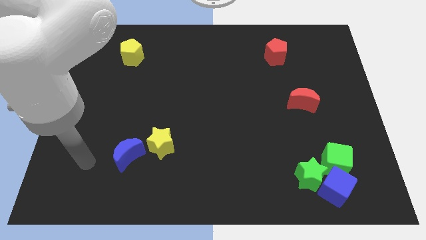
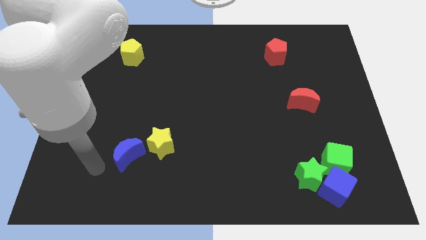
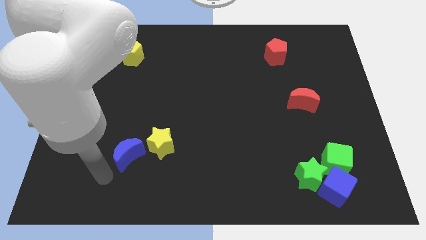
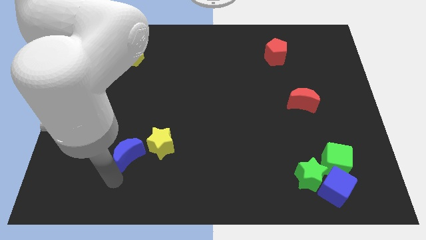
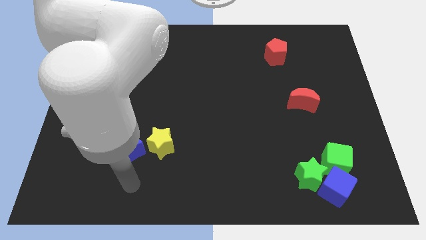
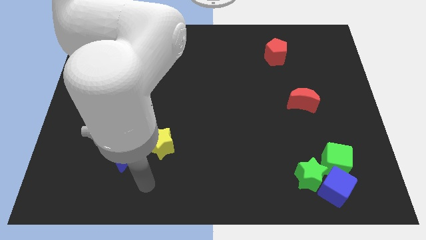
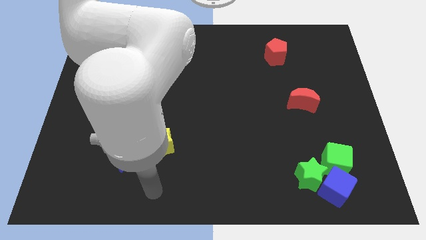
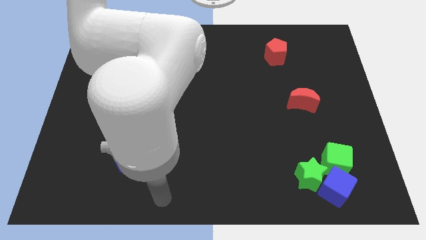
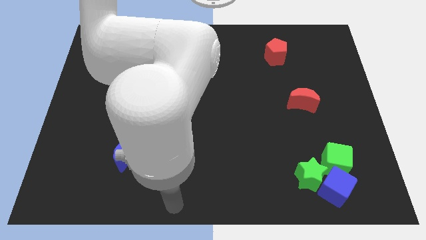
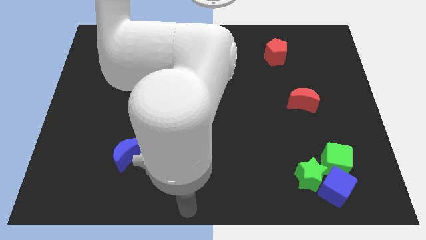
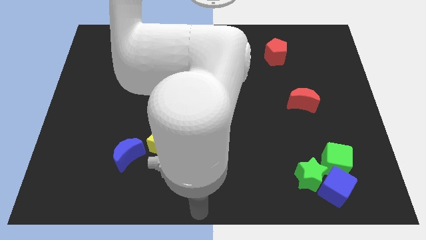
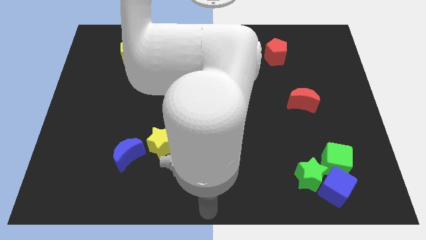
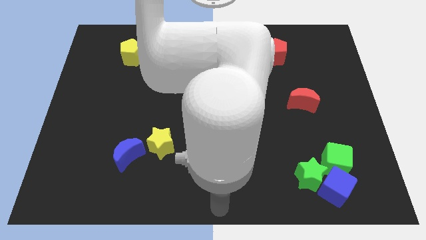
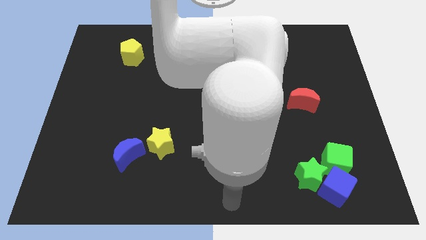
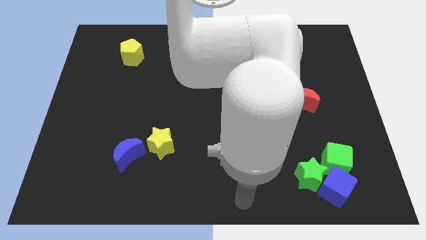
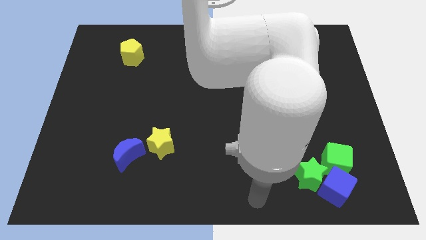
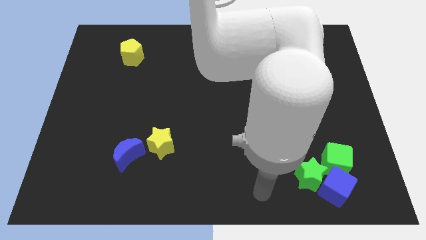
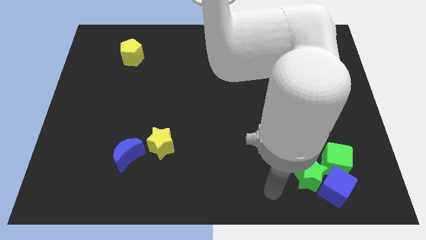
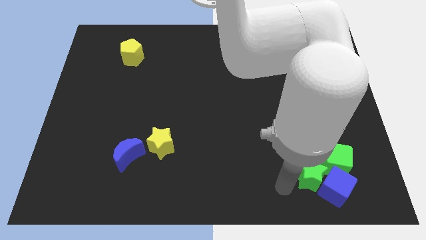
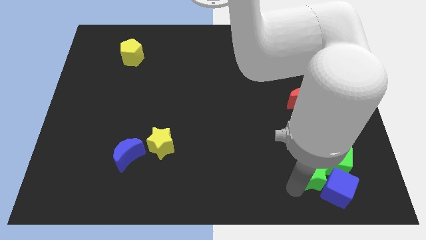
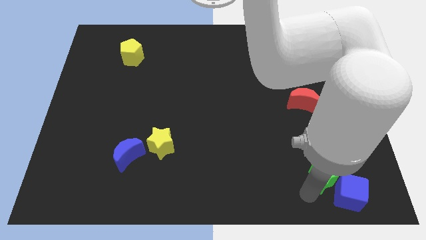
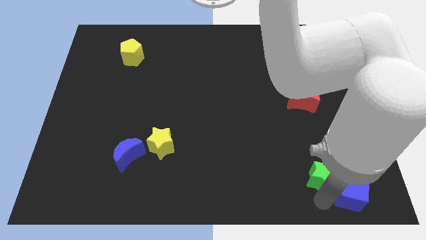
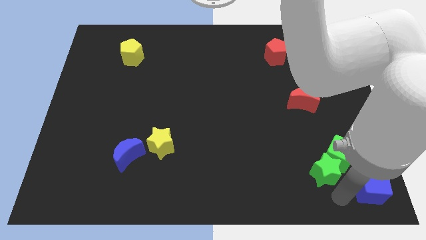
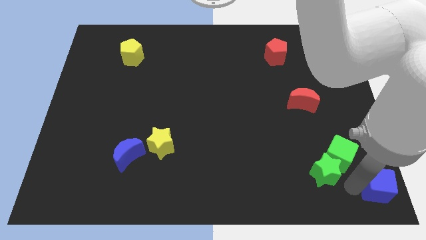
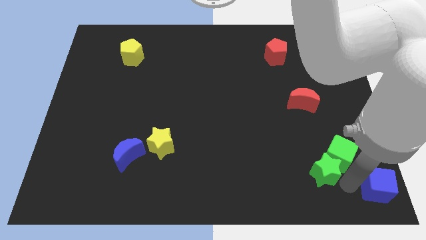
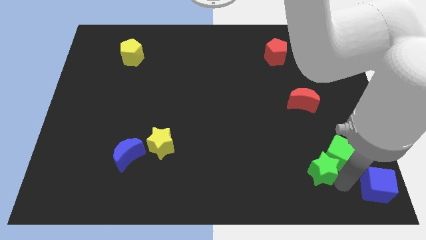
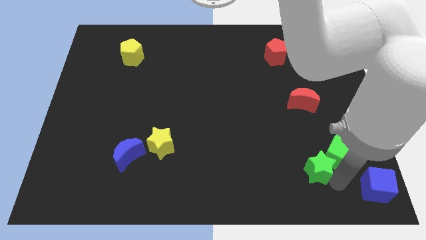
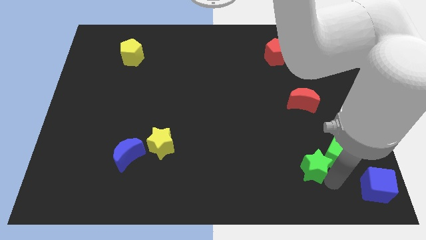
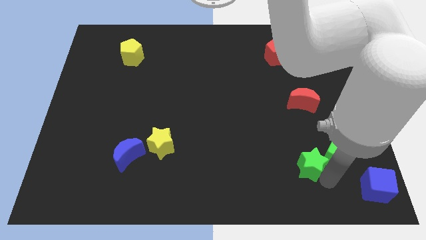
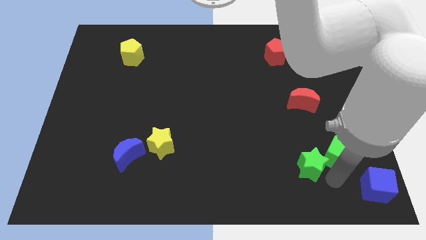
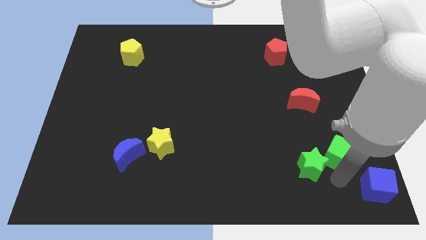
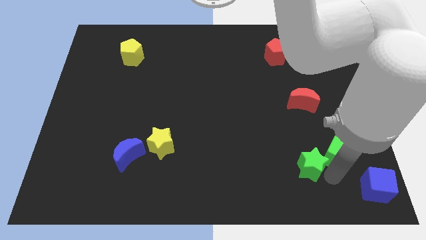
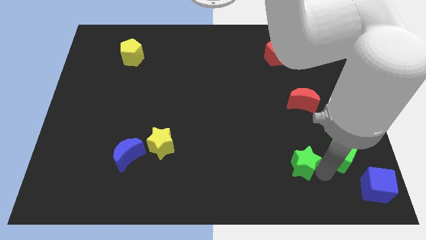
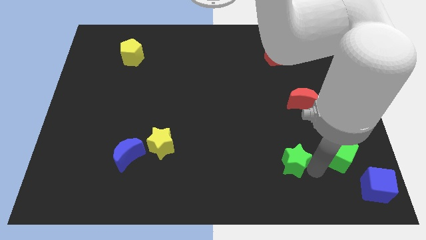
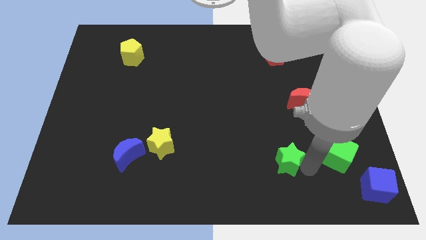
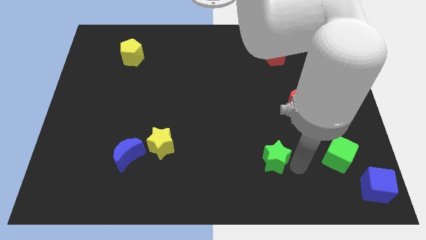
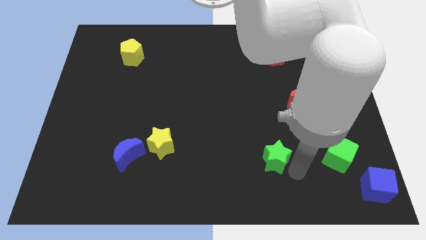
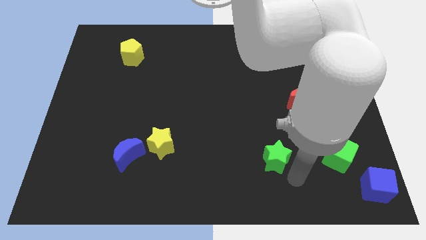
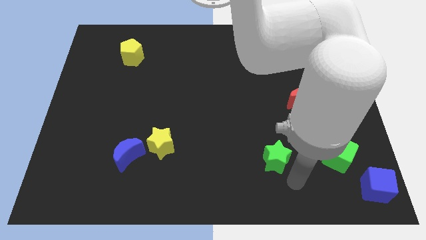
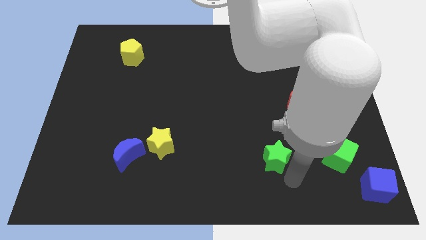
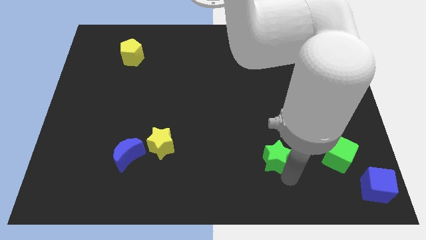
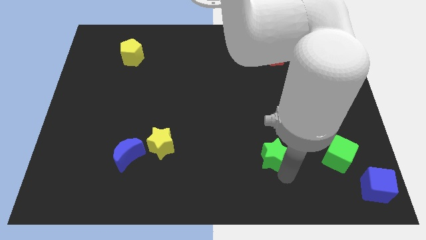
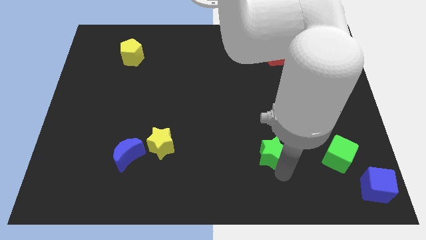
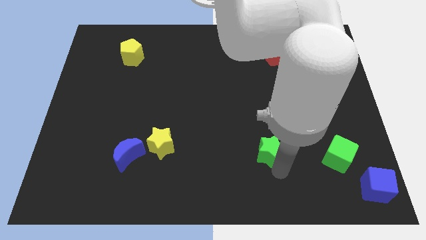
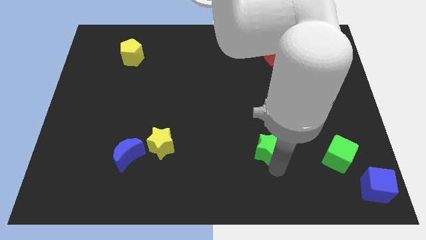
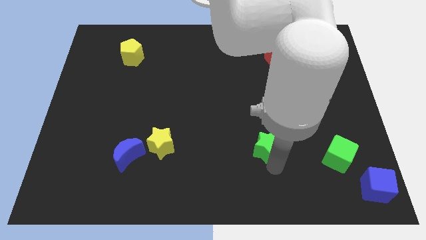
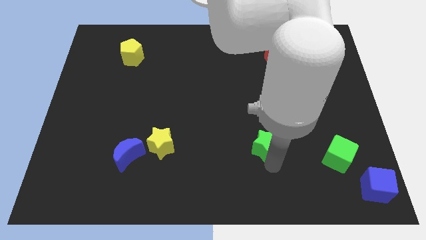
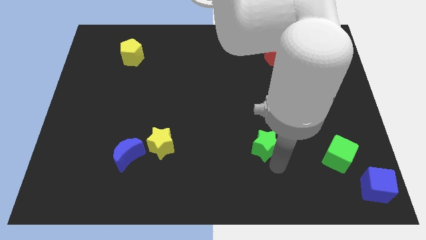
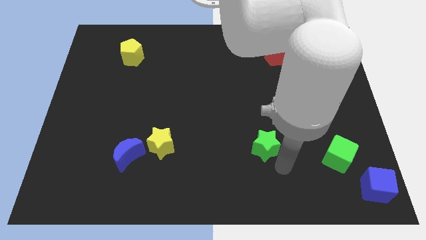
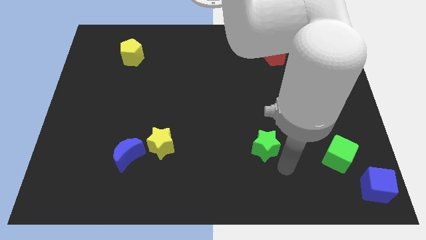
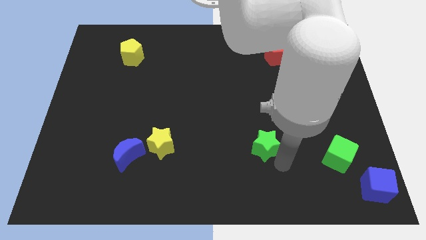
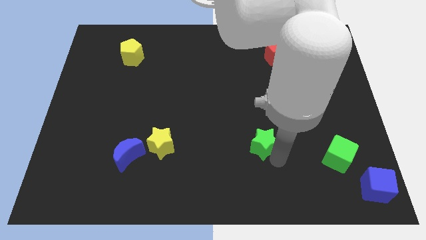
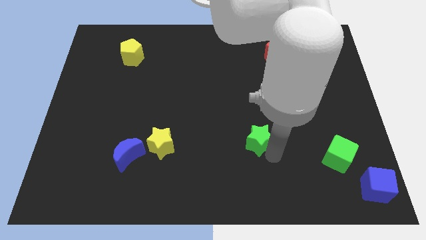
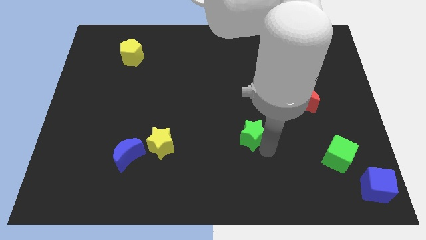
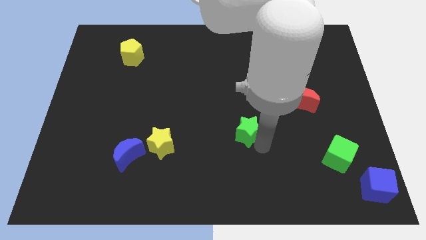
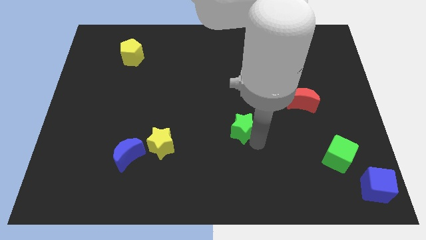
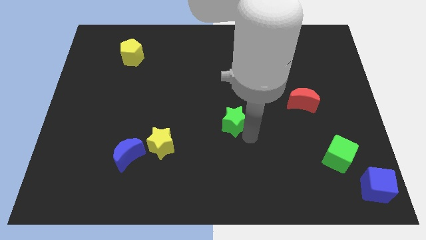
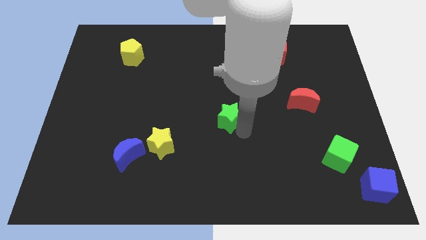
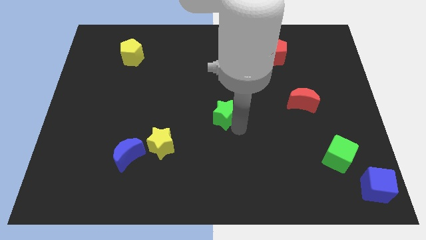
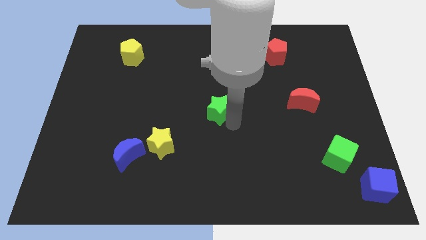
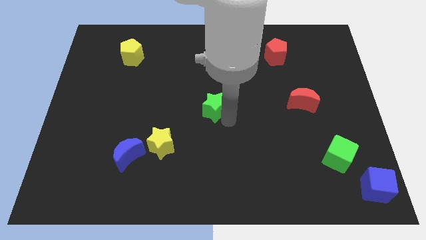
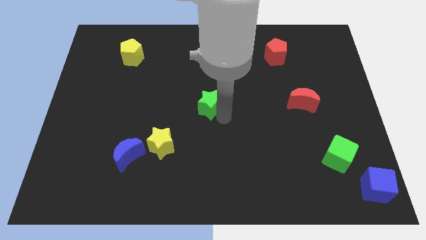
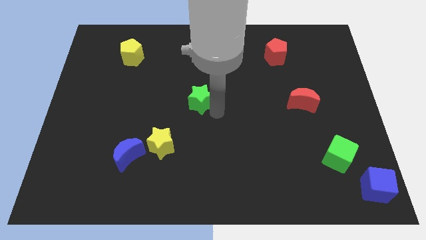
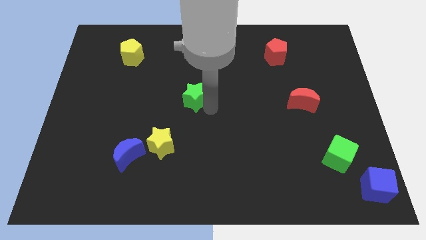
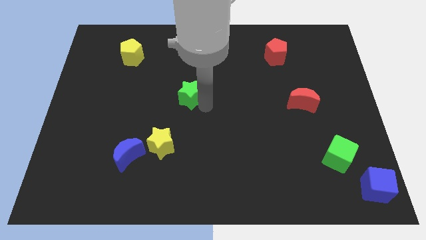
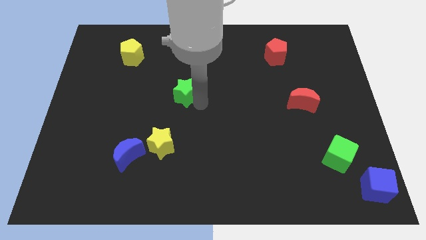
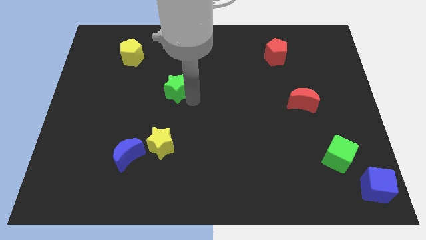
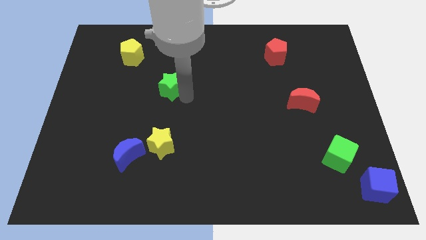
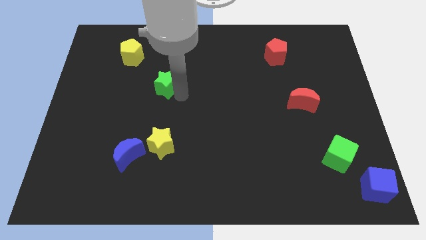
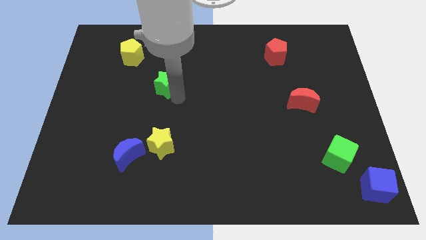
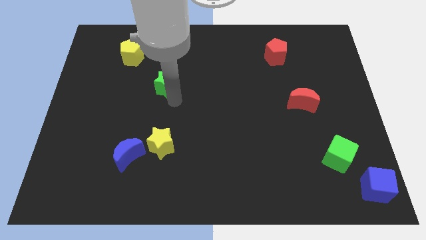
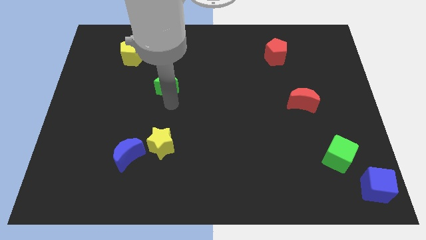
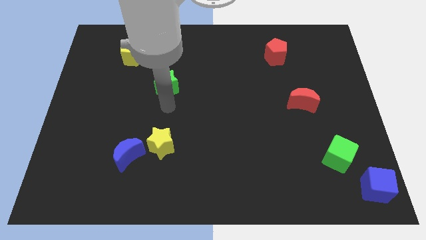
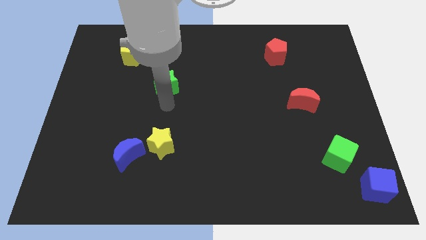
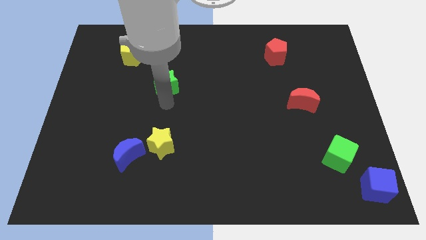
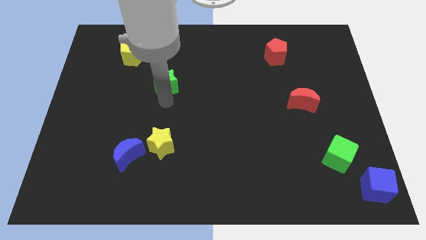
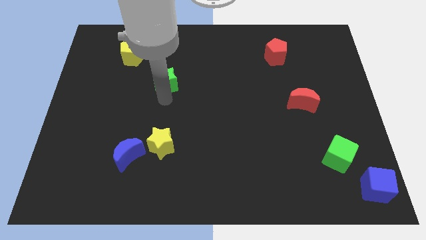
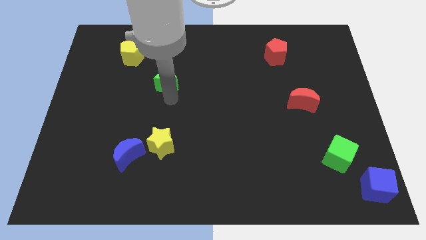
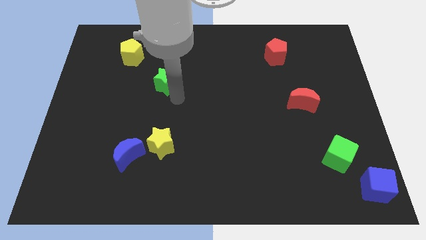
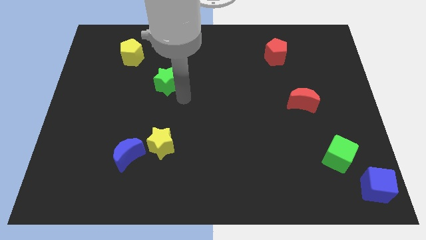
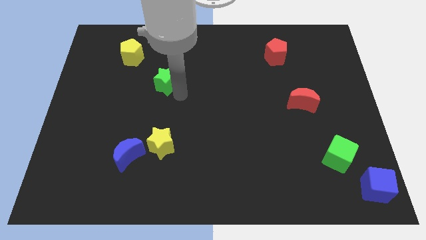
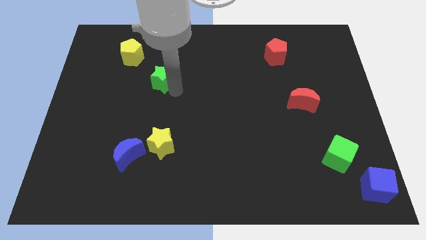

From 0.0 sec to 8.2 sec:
put the green star to the bottom right side of the yellow pentagon
